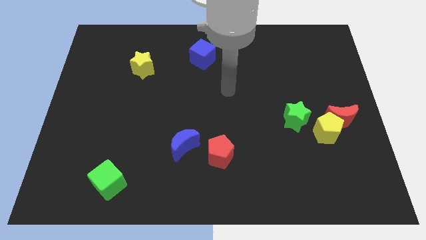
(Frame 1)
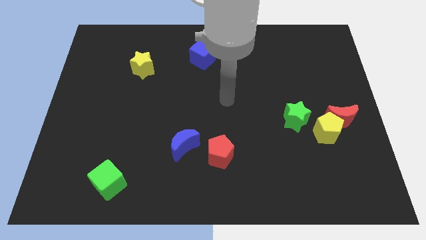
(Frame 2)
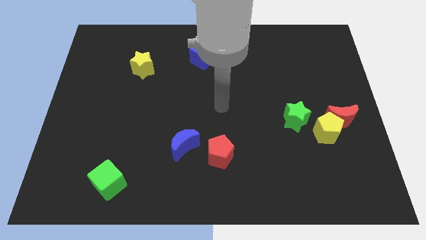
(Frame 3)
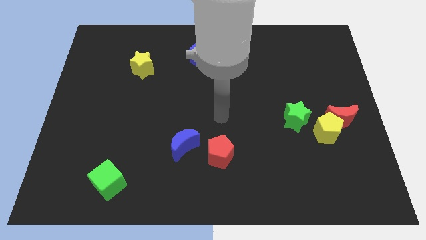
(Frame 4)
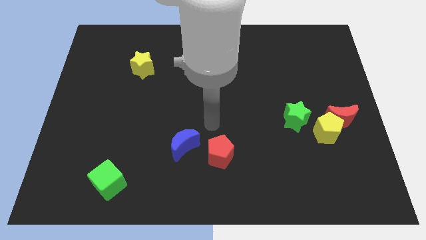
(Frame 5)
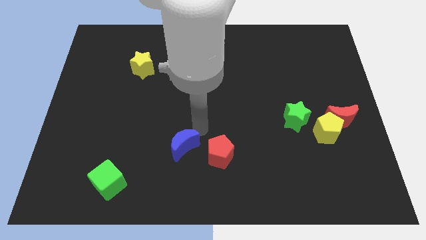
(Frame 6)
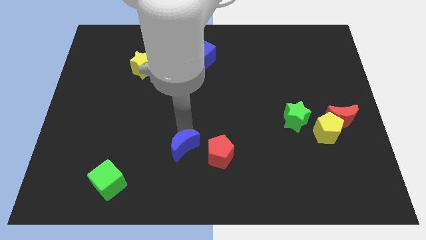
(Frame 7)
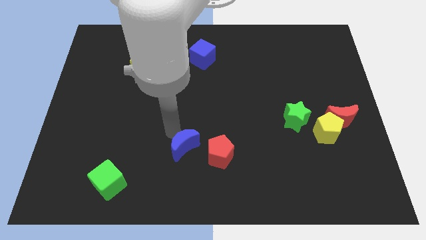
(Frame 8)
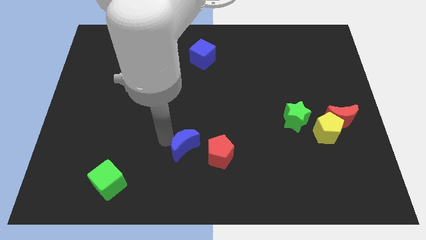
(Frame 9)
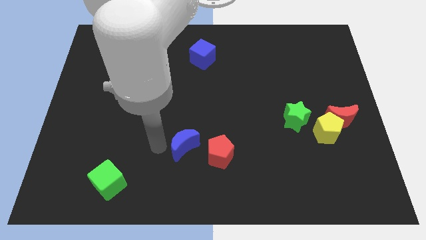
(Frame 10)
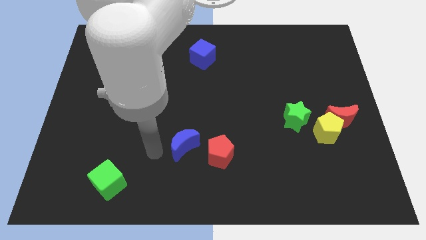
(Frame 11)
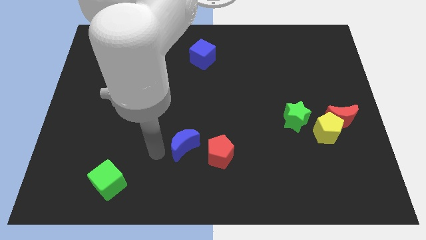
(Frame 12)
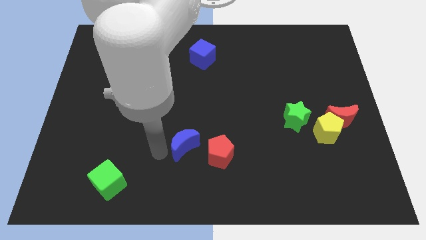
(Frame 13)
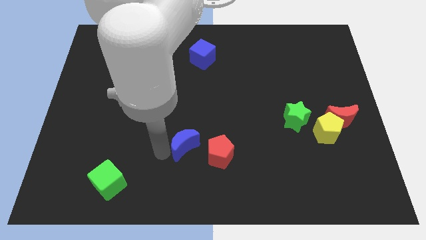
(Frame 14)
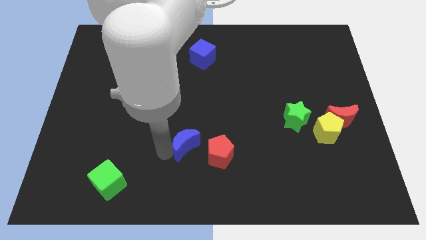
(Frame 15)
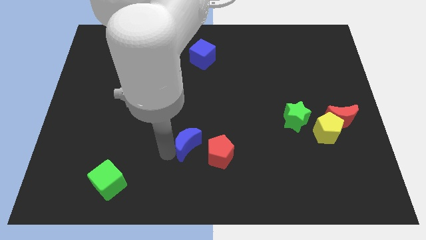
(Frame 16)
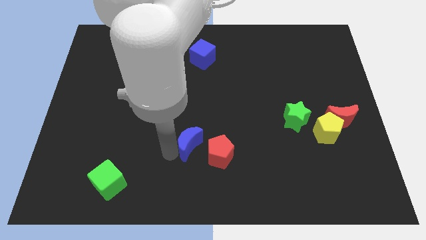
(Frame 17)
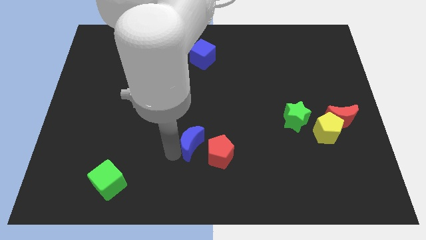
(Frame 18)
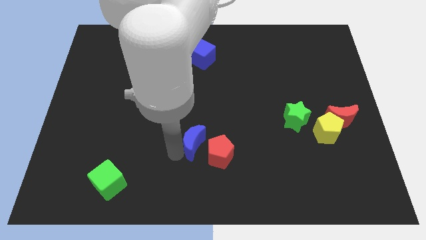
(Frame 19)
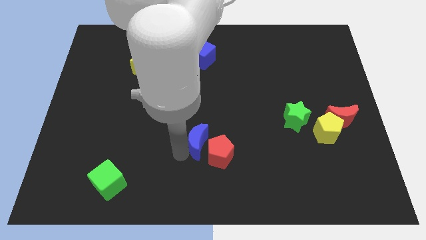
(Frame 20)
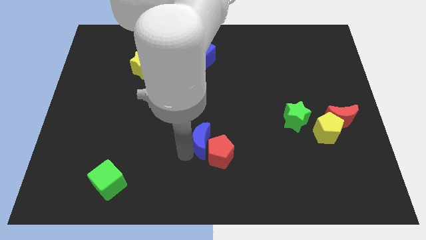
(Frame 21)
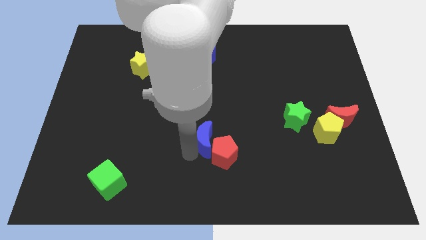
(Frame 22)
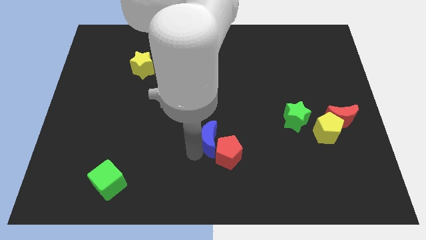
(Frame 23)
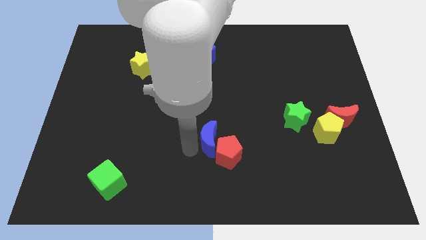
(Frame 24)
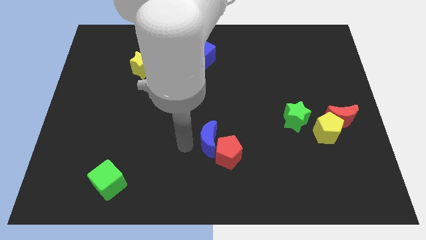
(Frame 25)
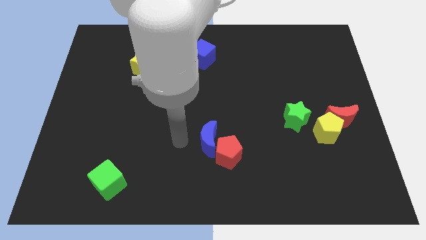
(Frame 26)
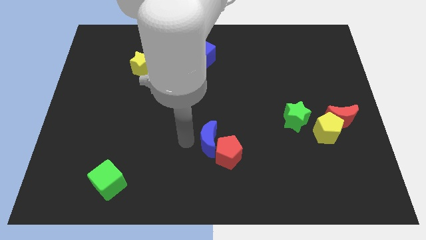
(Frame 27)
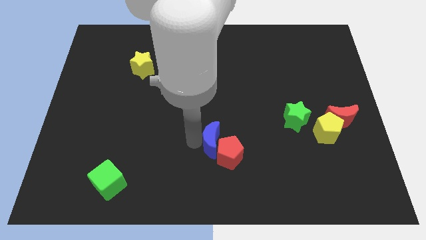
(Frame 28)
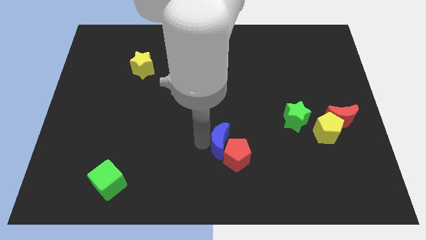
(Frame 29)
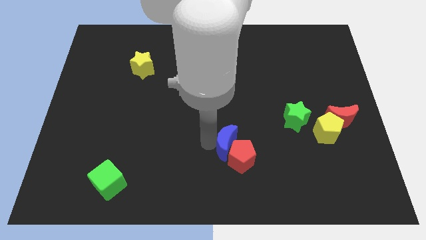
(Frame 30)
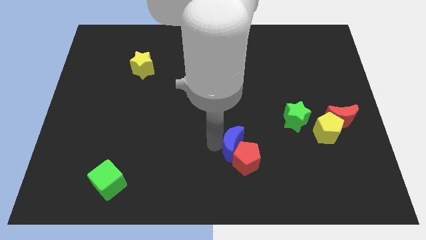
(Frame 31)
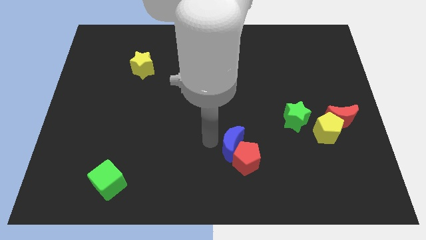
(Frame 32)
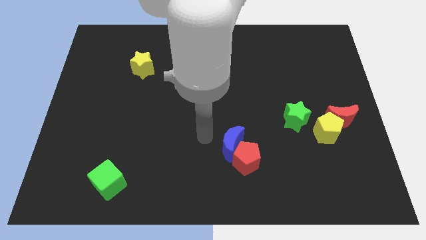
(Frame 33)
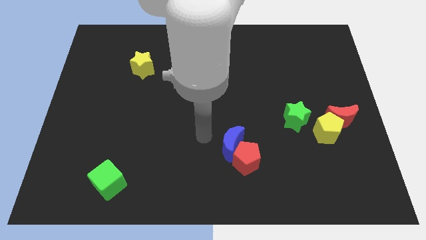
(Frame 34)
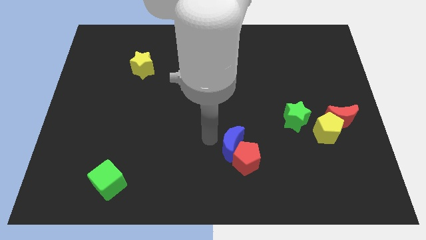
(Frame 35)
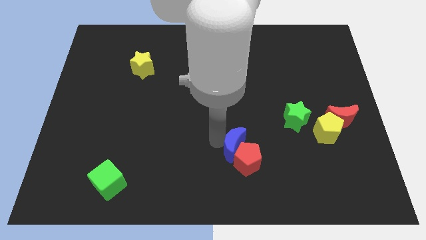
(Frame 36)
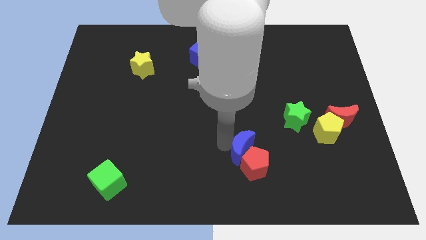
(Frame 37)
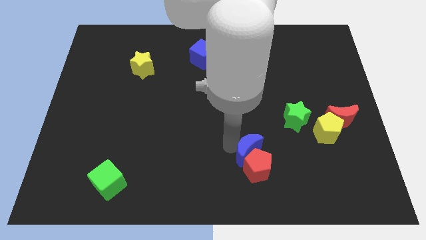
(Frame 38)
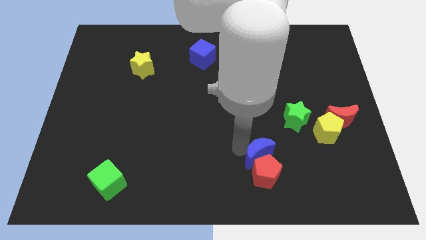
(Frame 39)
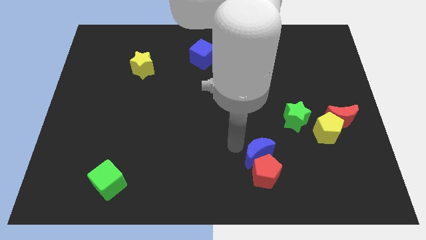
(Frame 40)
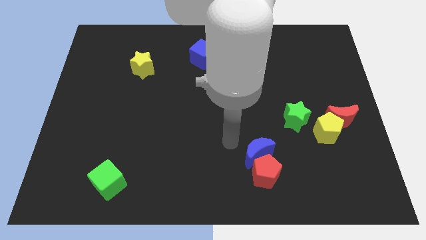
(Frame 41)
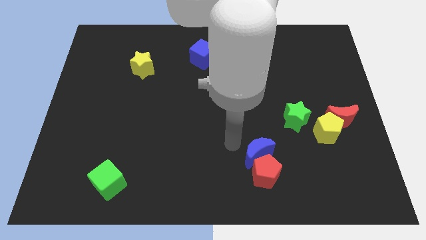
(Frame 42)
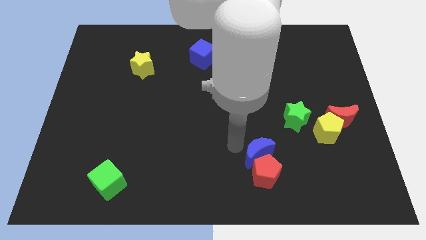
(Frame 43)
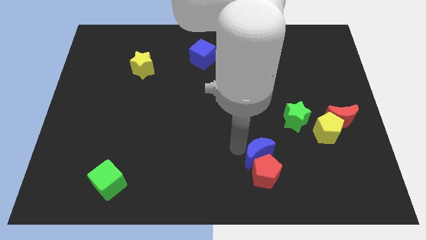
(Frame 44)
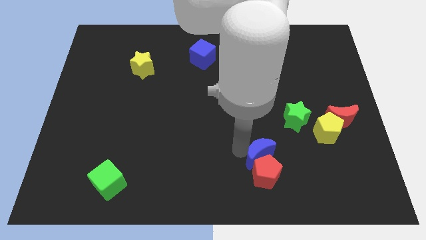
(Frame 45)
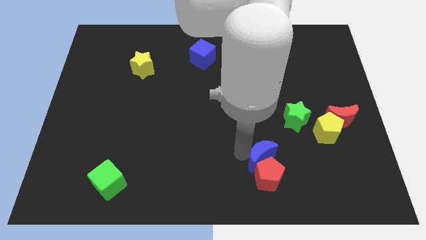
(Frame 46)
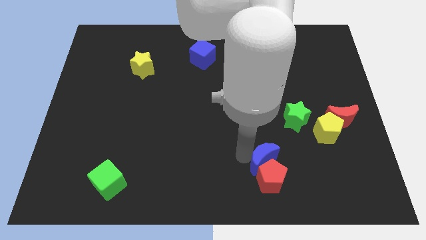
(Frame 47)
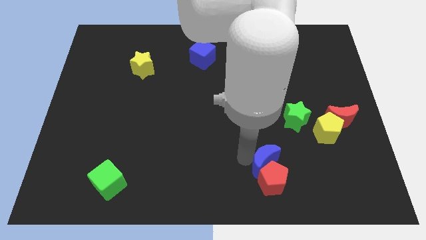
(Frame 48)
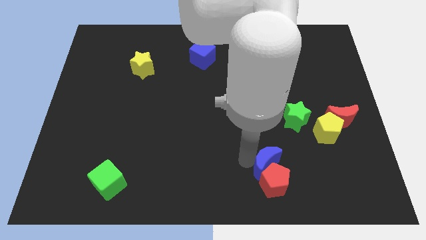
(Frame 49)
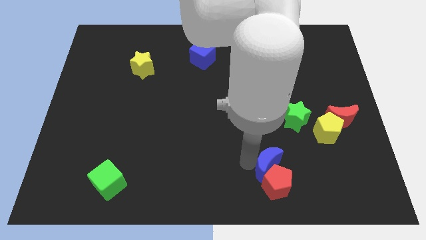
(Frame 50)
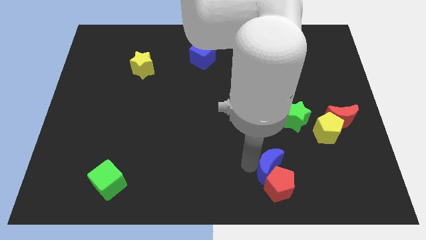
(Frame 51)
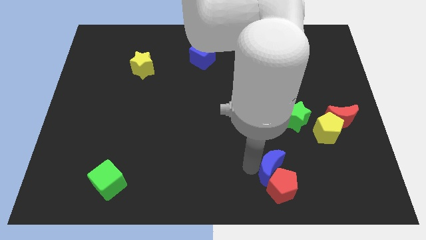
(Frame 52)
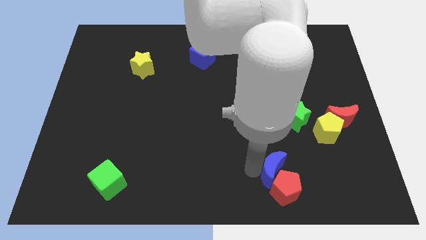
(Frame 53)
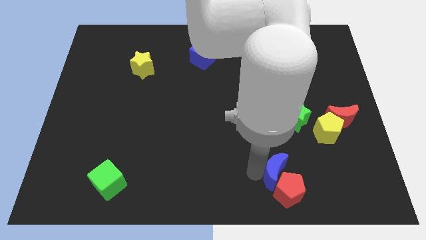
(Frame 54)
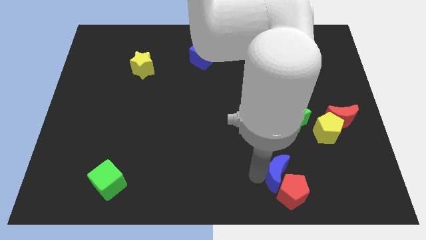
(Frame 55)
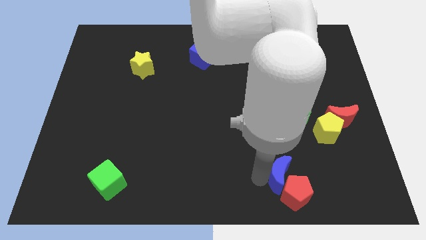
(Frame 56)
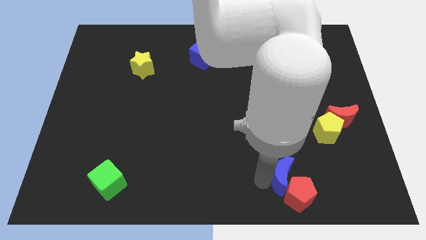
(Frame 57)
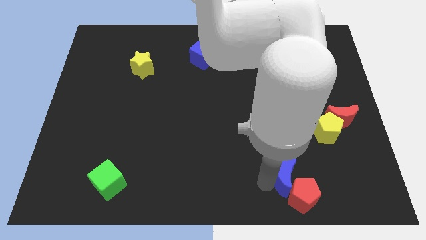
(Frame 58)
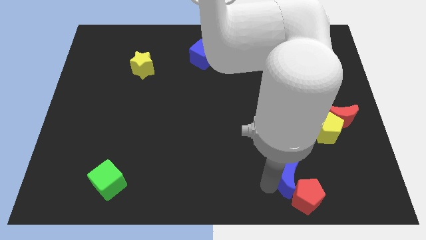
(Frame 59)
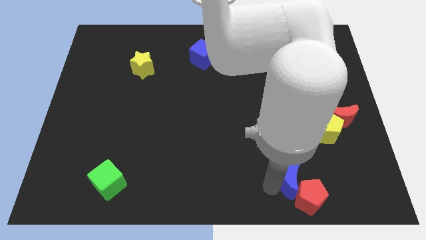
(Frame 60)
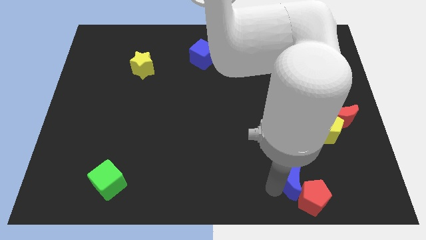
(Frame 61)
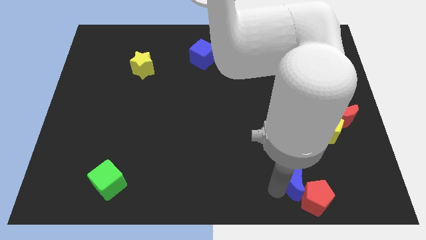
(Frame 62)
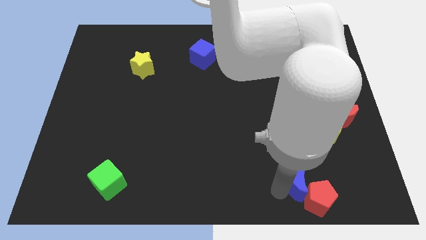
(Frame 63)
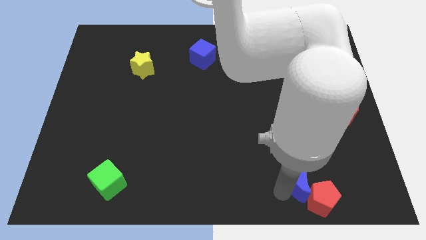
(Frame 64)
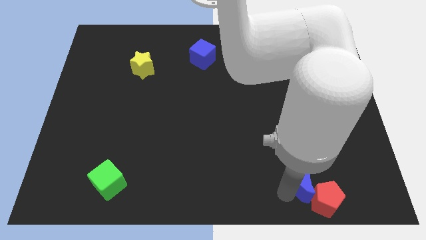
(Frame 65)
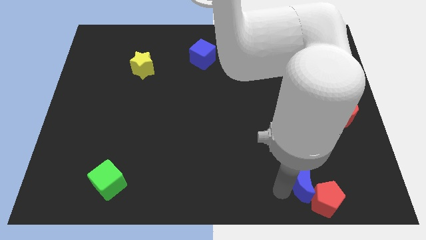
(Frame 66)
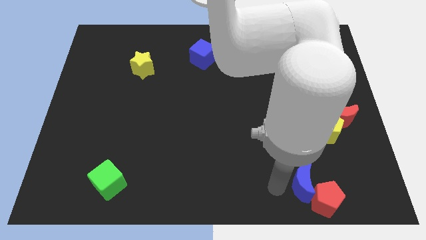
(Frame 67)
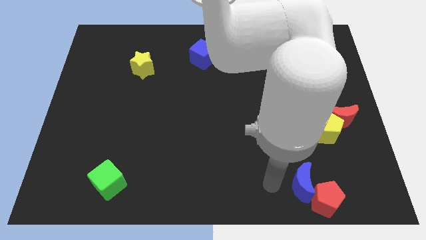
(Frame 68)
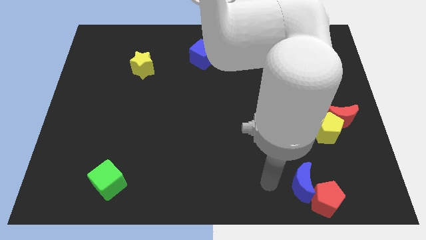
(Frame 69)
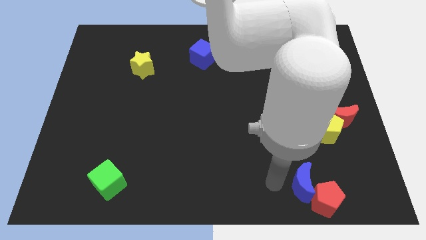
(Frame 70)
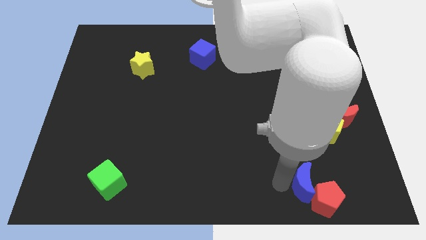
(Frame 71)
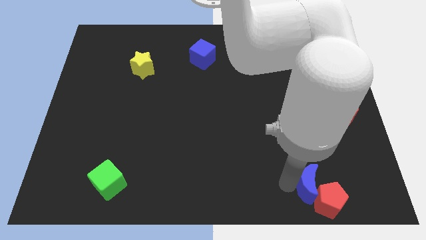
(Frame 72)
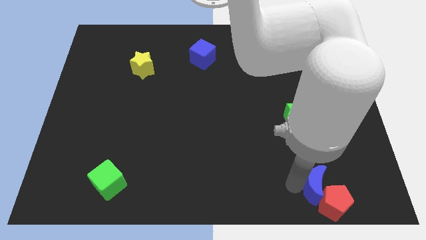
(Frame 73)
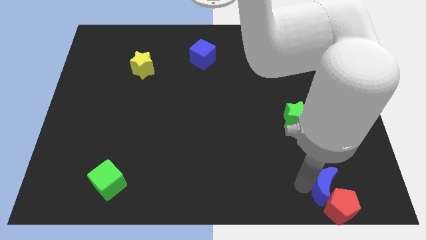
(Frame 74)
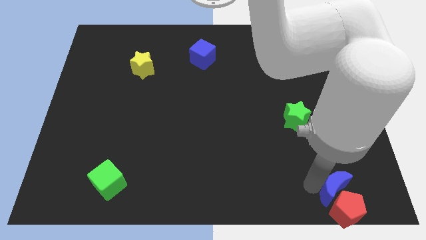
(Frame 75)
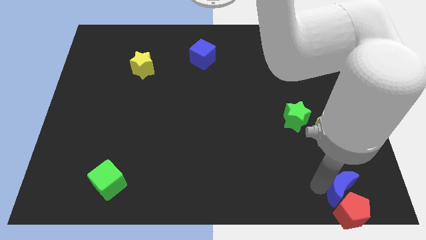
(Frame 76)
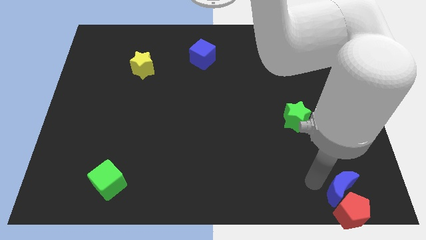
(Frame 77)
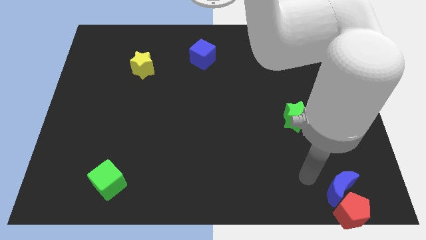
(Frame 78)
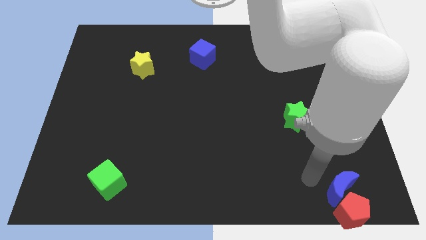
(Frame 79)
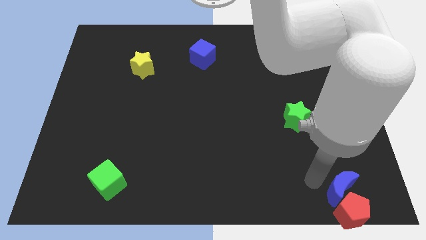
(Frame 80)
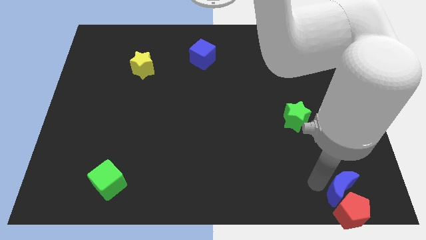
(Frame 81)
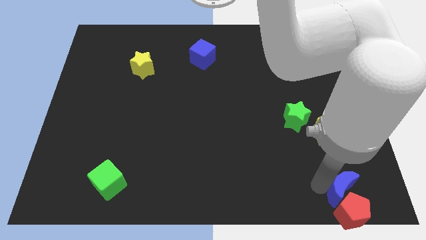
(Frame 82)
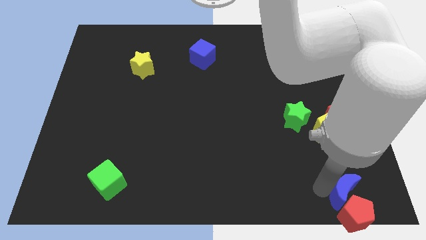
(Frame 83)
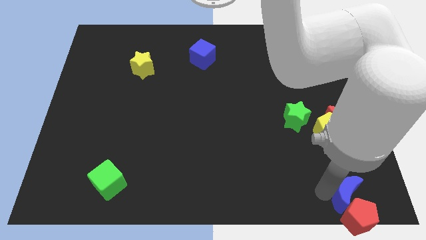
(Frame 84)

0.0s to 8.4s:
put the blue moon to the bottom right of the board
